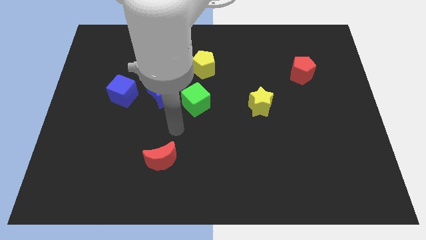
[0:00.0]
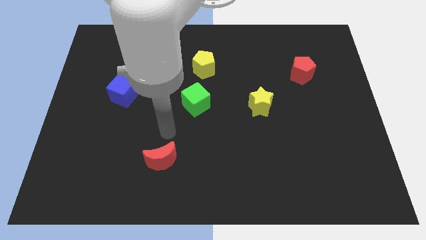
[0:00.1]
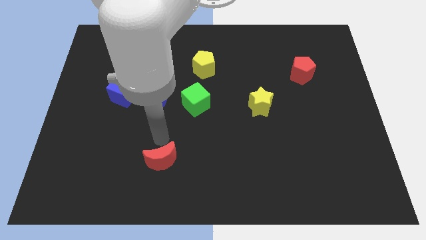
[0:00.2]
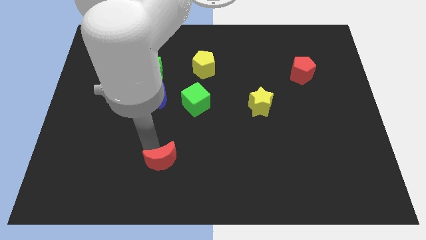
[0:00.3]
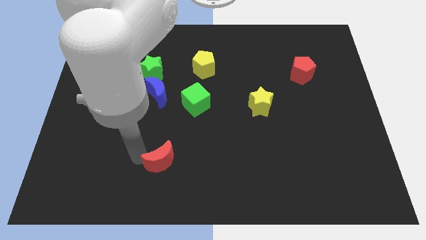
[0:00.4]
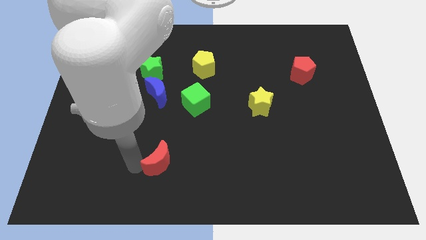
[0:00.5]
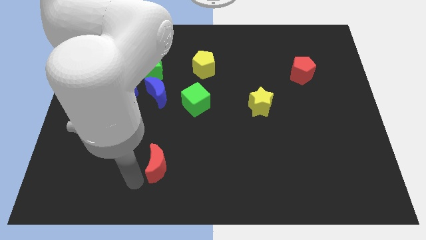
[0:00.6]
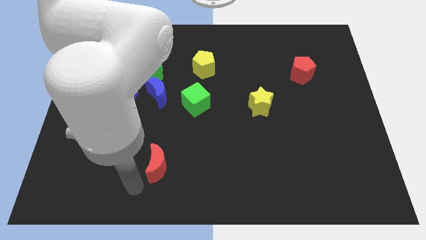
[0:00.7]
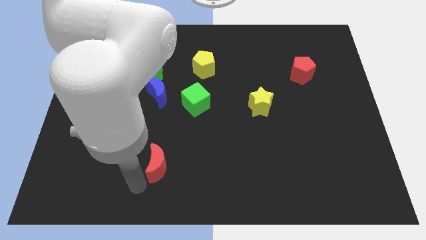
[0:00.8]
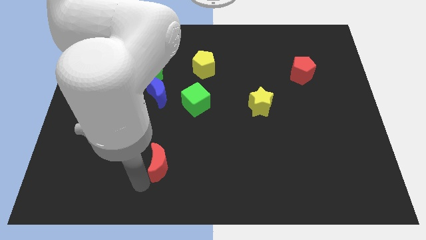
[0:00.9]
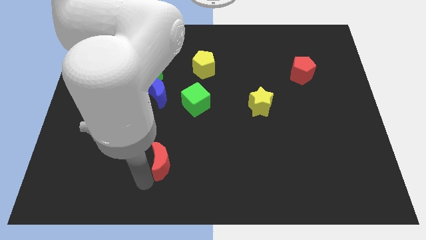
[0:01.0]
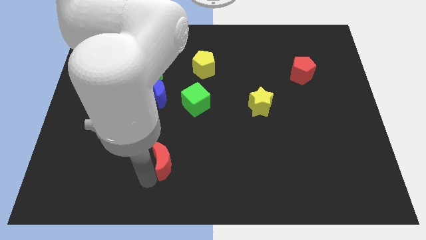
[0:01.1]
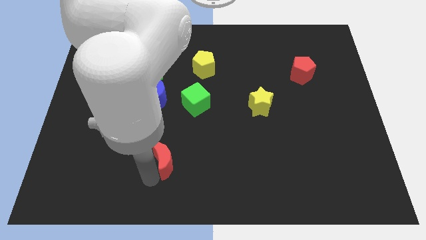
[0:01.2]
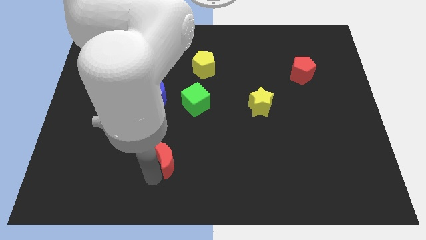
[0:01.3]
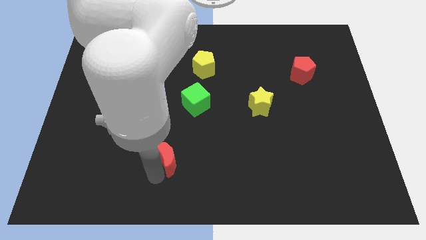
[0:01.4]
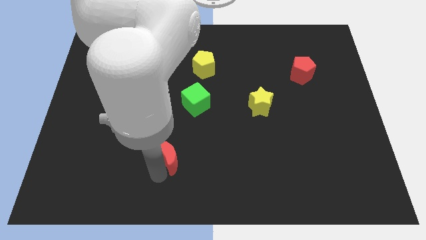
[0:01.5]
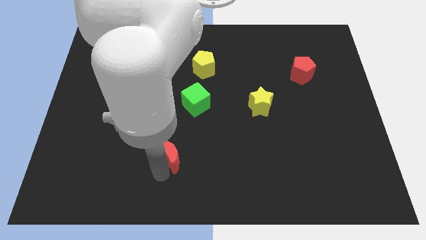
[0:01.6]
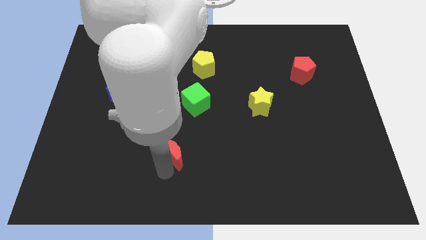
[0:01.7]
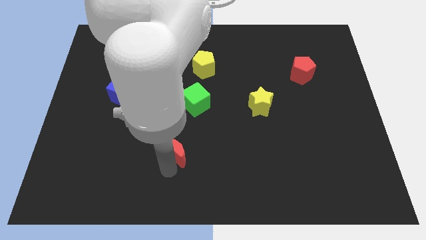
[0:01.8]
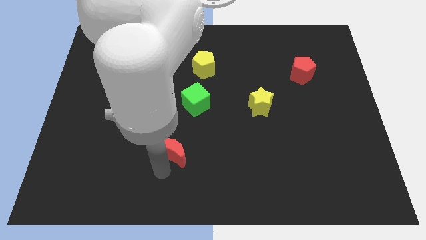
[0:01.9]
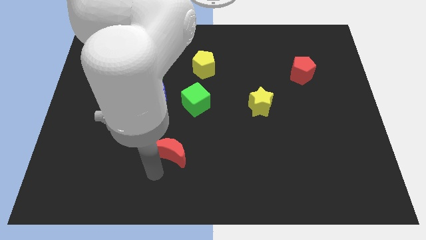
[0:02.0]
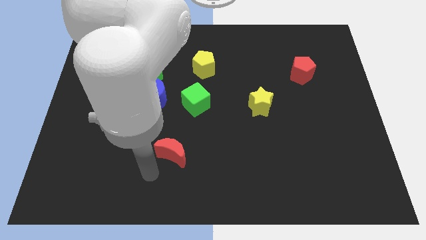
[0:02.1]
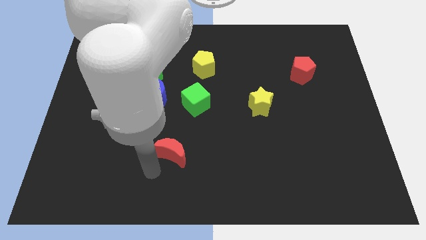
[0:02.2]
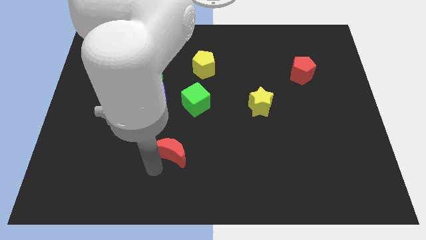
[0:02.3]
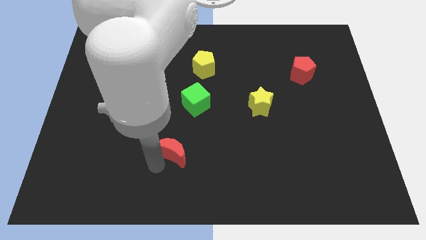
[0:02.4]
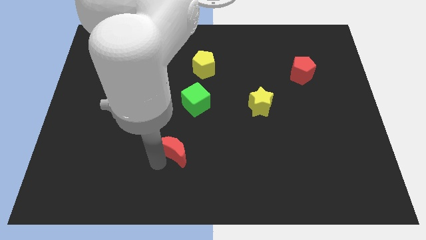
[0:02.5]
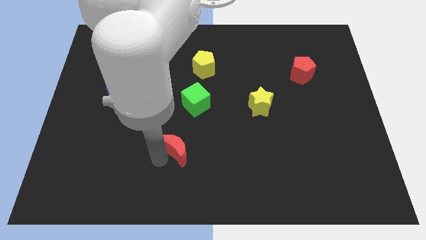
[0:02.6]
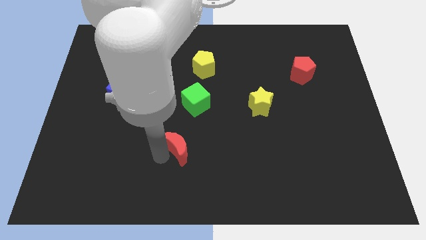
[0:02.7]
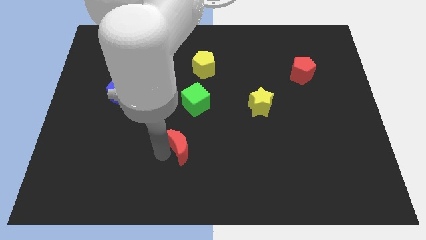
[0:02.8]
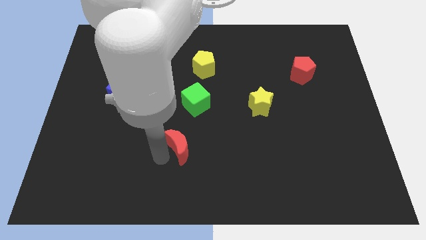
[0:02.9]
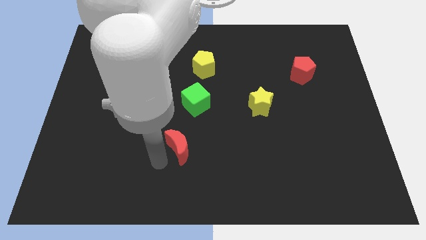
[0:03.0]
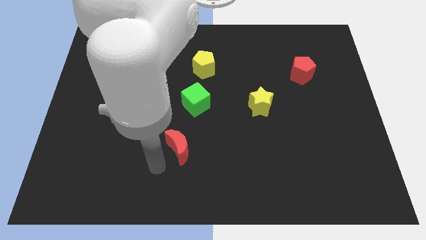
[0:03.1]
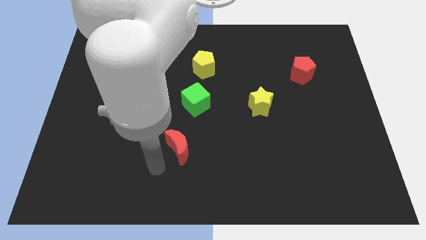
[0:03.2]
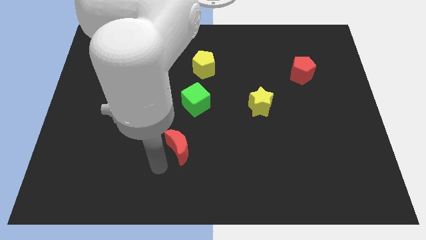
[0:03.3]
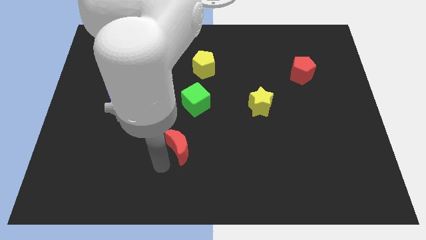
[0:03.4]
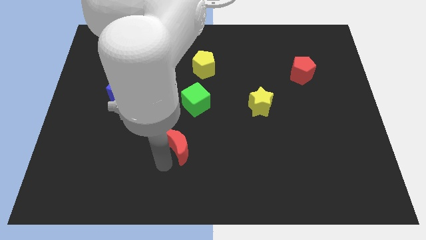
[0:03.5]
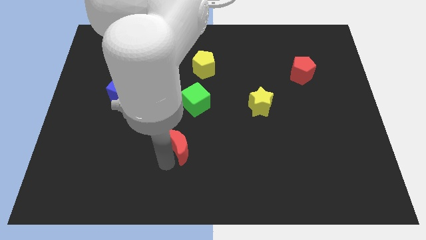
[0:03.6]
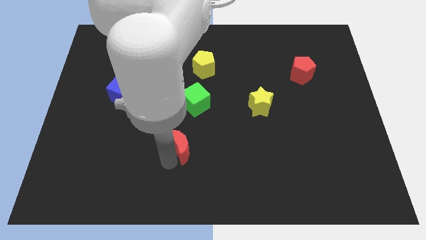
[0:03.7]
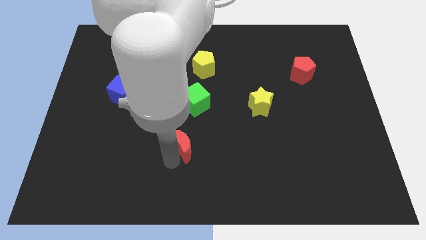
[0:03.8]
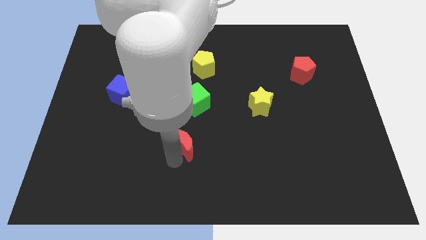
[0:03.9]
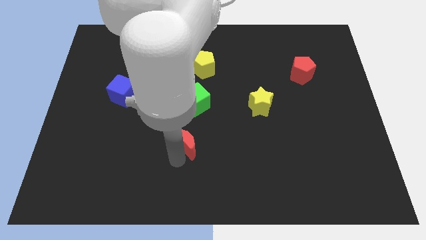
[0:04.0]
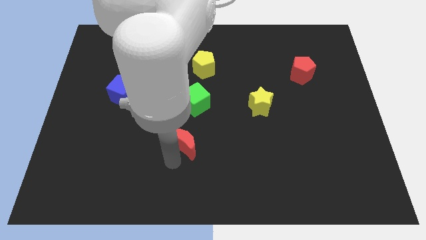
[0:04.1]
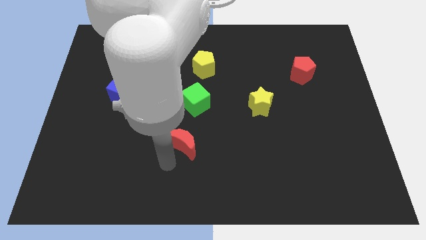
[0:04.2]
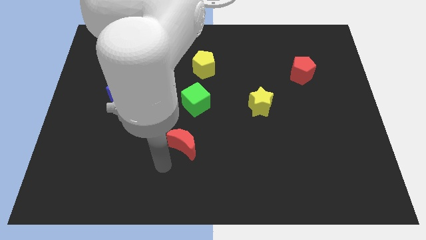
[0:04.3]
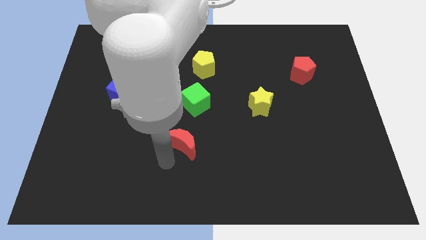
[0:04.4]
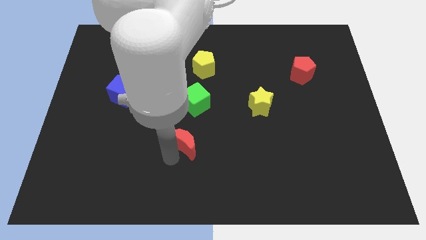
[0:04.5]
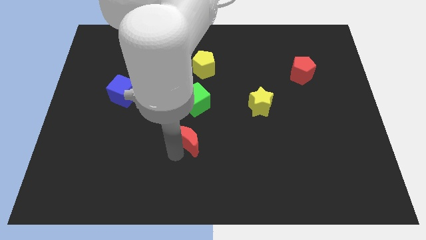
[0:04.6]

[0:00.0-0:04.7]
slide the red moon up and then to the right somewhat

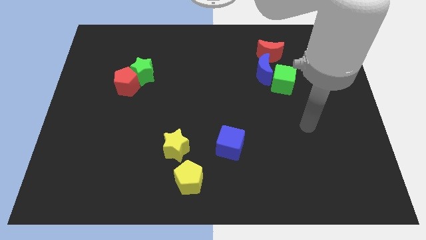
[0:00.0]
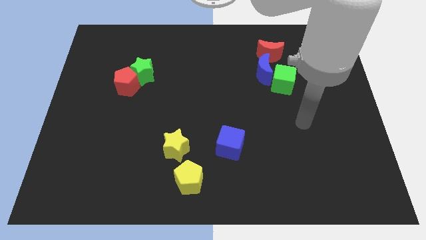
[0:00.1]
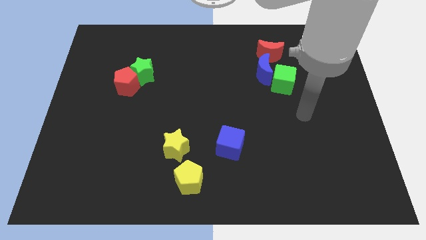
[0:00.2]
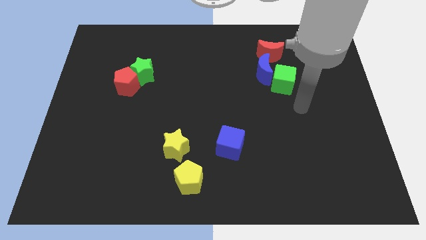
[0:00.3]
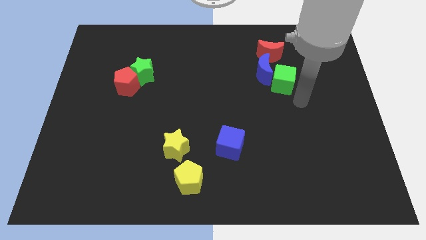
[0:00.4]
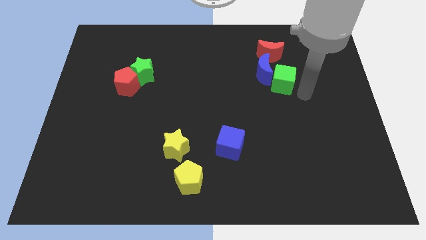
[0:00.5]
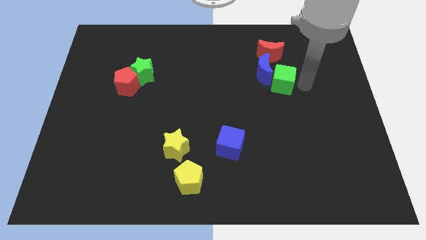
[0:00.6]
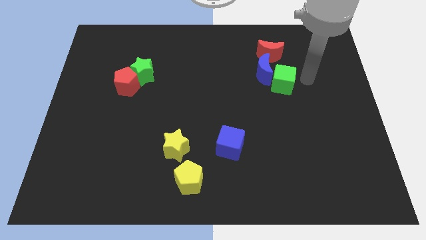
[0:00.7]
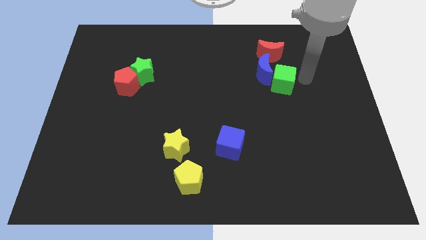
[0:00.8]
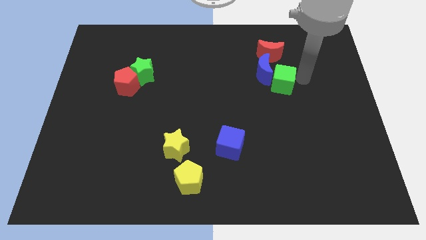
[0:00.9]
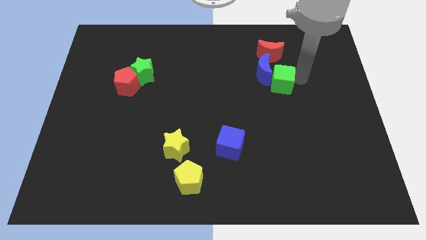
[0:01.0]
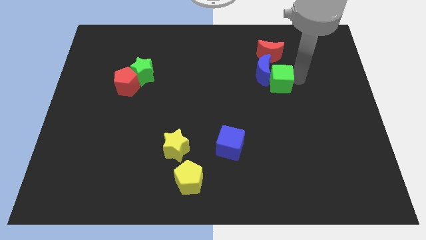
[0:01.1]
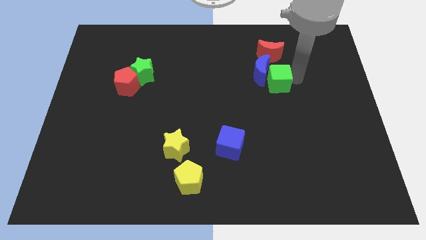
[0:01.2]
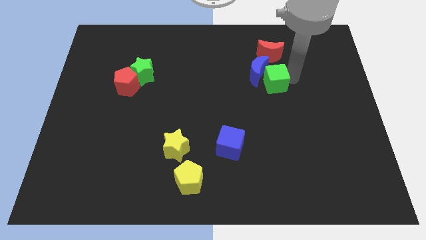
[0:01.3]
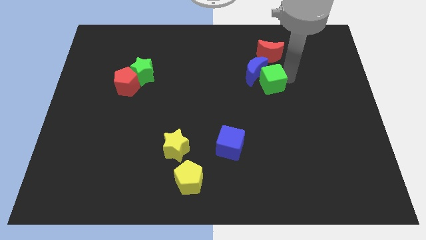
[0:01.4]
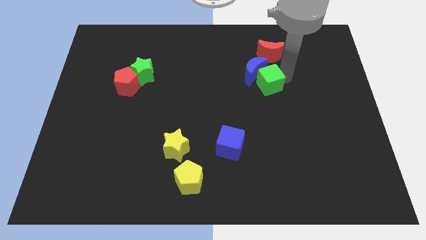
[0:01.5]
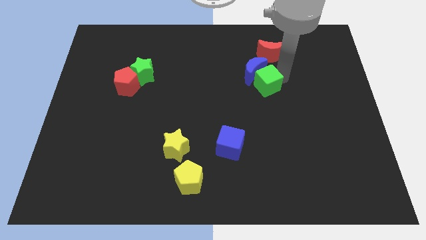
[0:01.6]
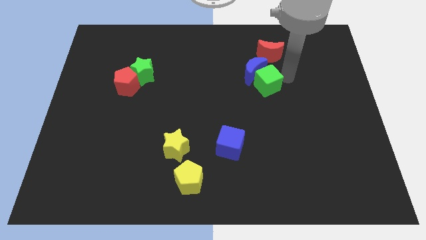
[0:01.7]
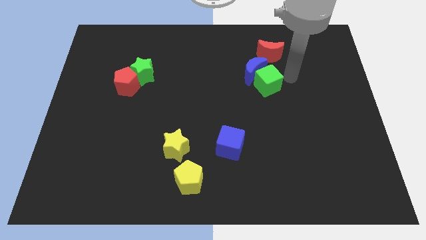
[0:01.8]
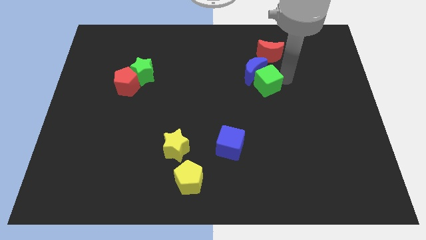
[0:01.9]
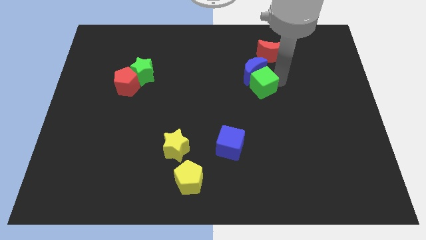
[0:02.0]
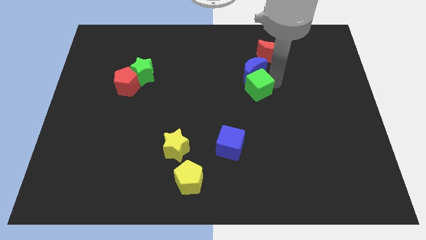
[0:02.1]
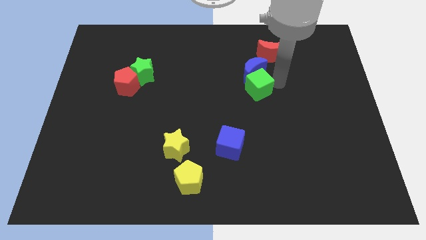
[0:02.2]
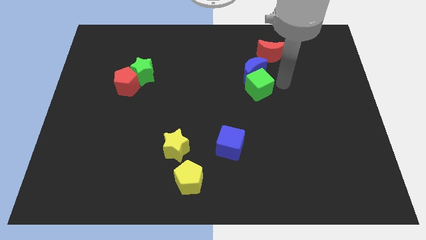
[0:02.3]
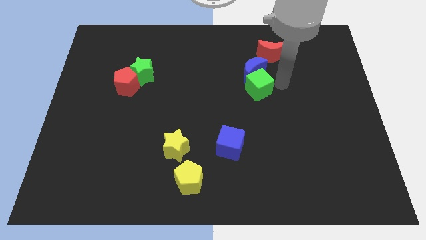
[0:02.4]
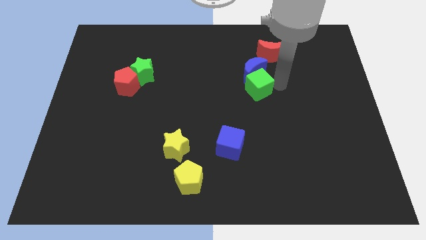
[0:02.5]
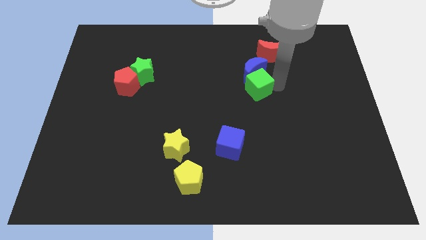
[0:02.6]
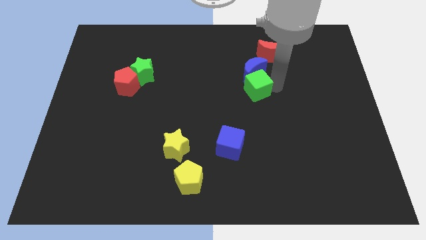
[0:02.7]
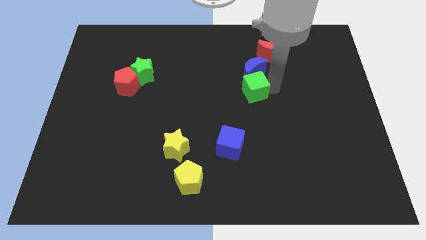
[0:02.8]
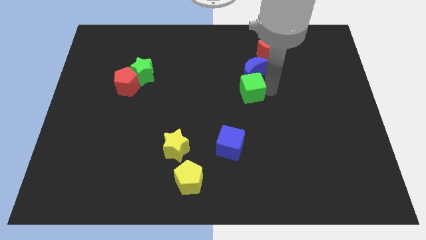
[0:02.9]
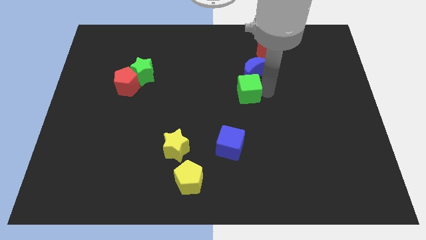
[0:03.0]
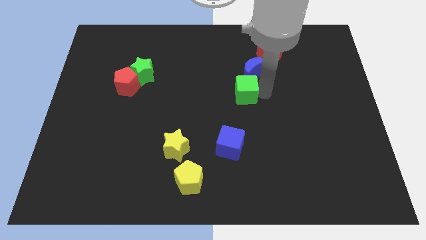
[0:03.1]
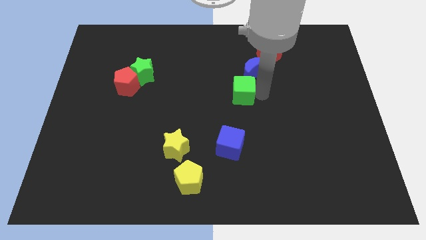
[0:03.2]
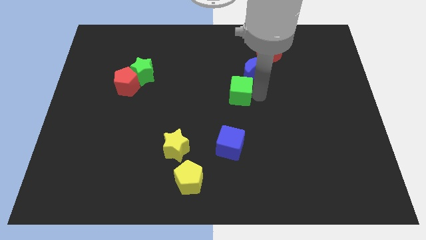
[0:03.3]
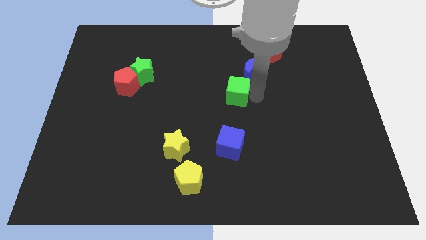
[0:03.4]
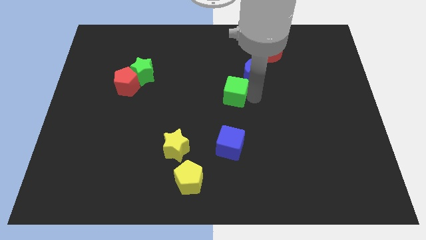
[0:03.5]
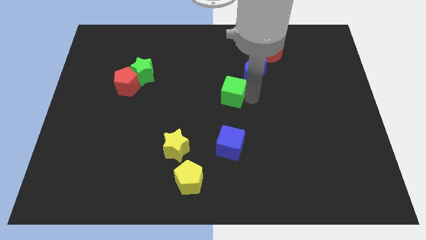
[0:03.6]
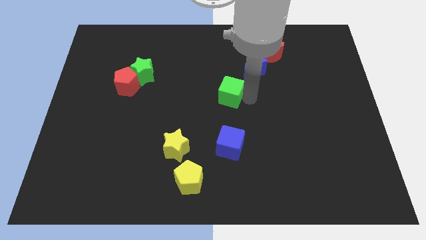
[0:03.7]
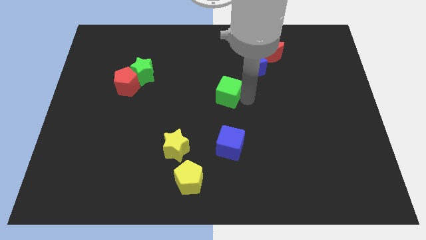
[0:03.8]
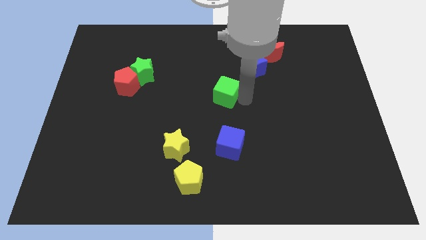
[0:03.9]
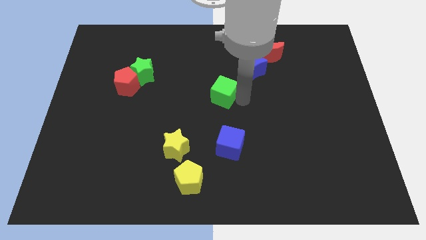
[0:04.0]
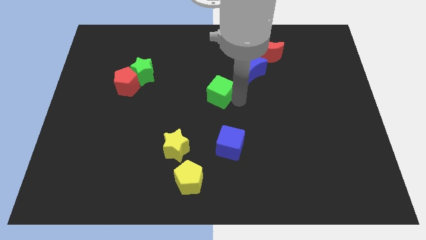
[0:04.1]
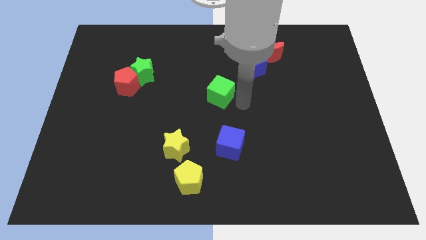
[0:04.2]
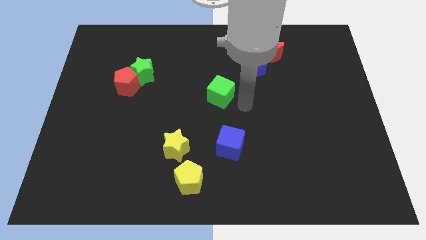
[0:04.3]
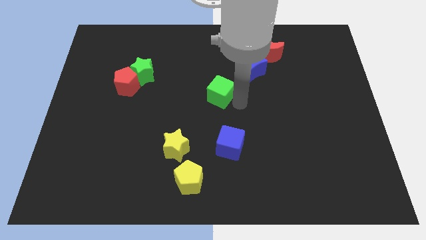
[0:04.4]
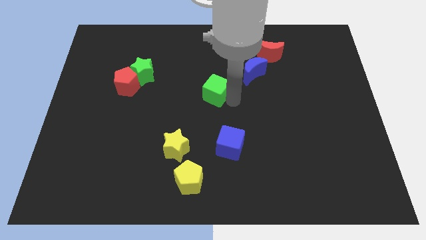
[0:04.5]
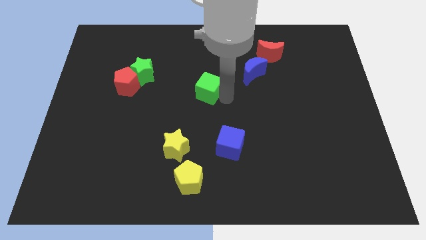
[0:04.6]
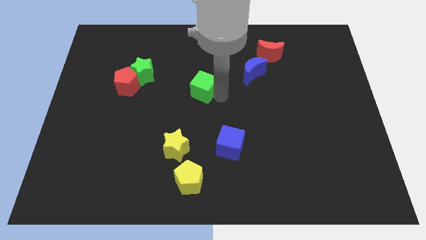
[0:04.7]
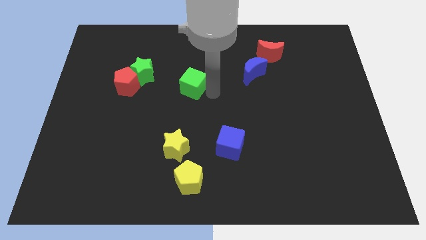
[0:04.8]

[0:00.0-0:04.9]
move the green cube to the left
